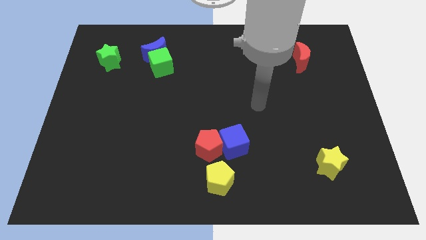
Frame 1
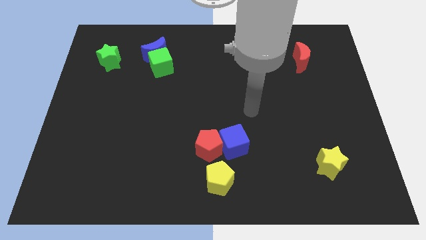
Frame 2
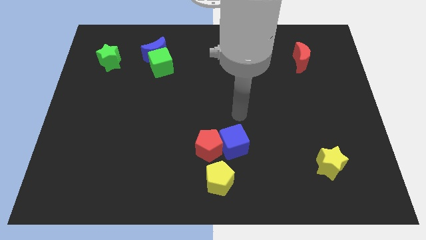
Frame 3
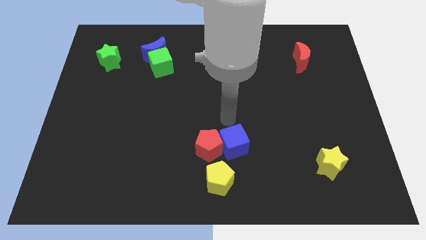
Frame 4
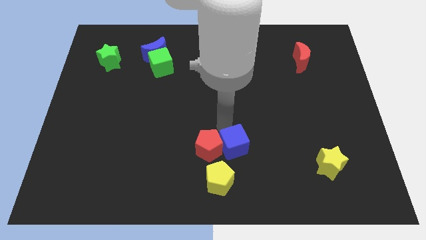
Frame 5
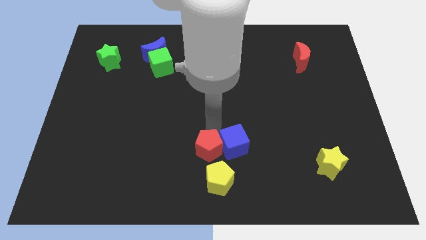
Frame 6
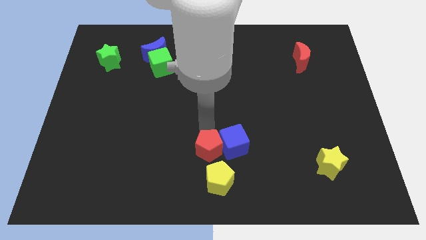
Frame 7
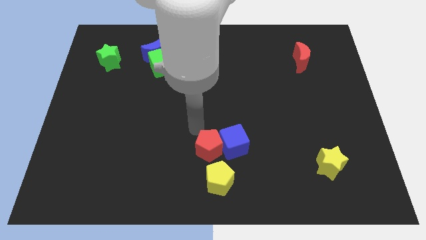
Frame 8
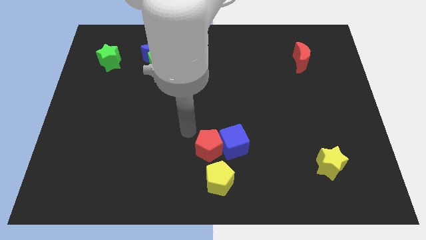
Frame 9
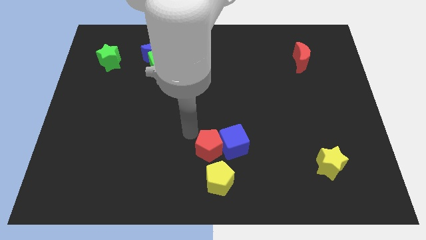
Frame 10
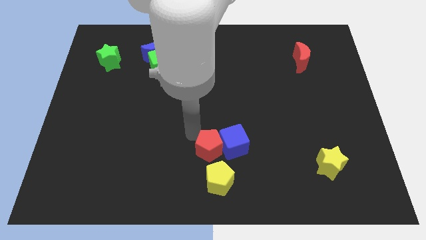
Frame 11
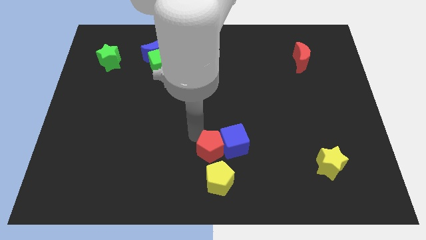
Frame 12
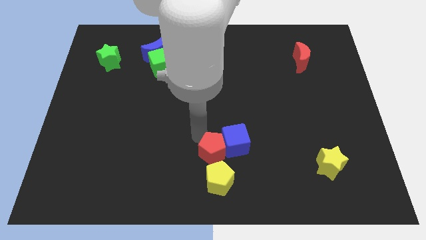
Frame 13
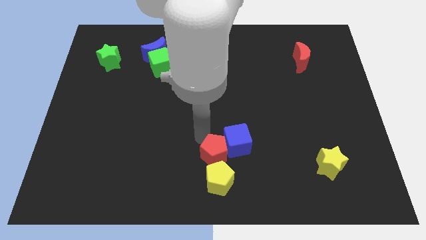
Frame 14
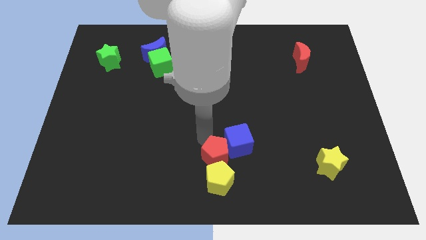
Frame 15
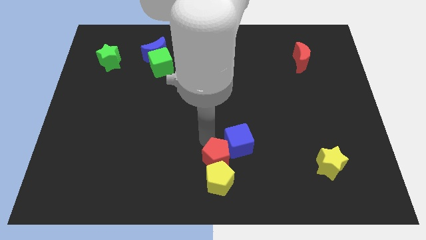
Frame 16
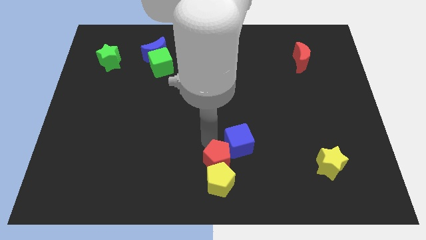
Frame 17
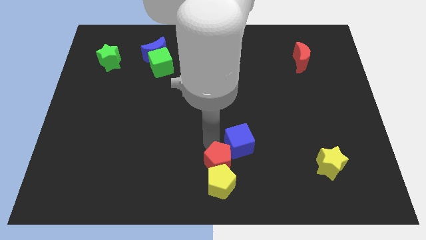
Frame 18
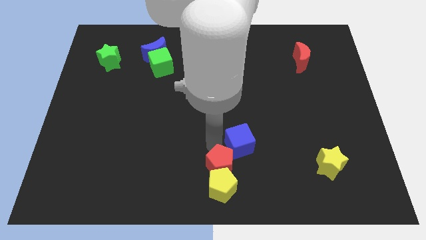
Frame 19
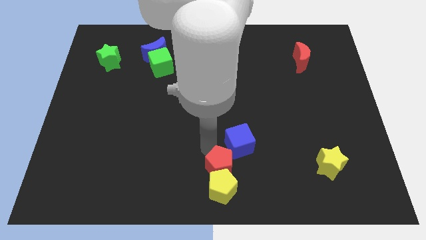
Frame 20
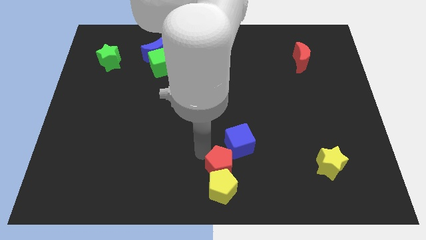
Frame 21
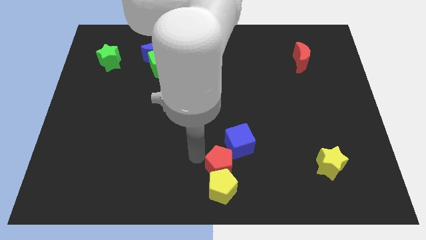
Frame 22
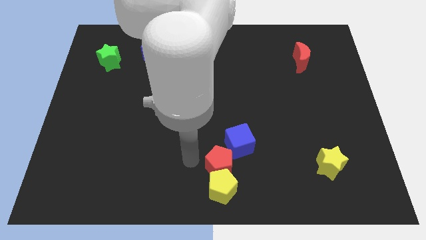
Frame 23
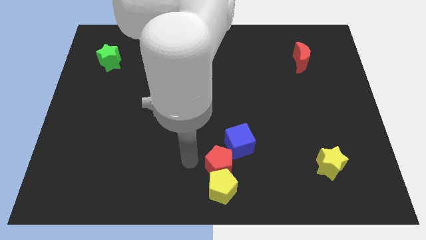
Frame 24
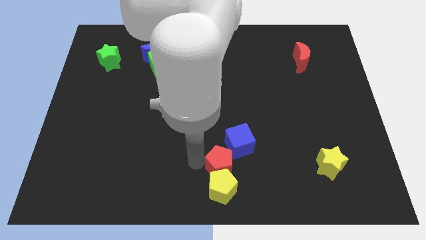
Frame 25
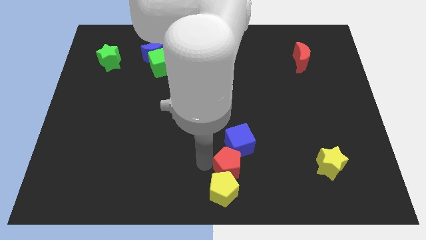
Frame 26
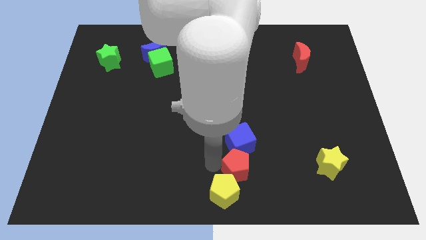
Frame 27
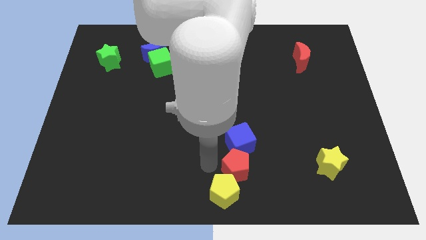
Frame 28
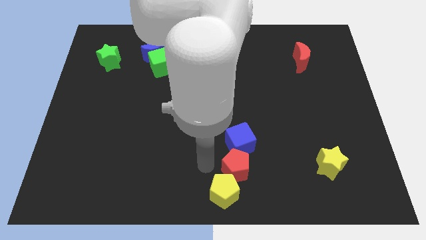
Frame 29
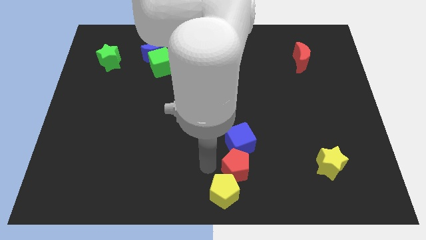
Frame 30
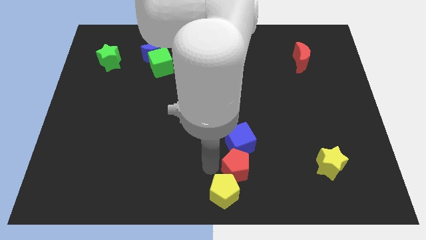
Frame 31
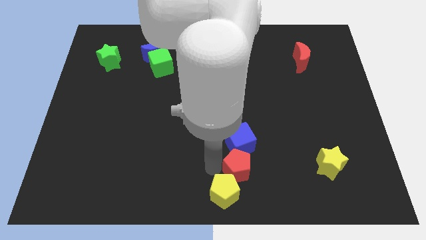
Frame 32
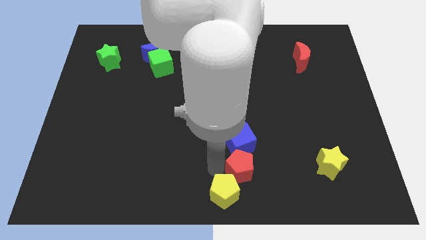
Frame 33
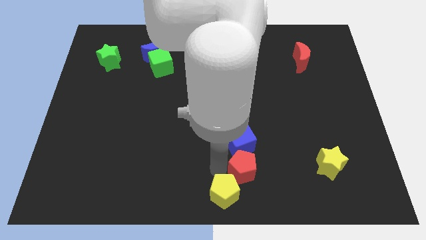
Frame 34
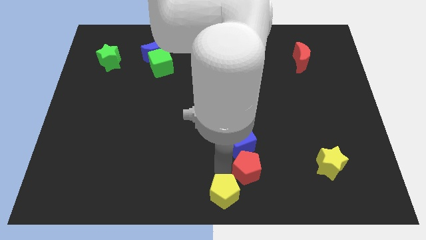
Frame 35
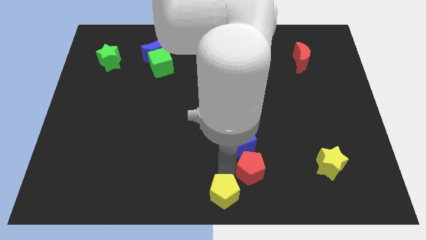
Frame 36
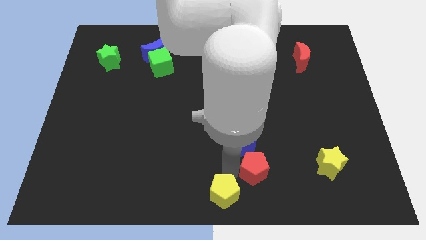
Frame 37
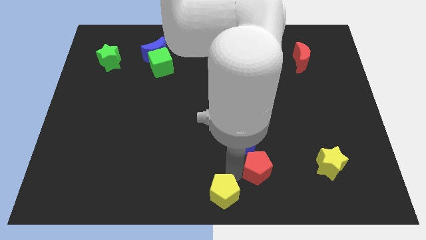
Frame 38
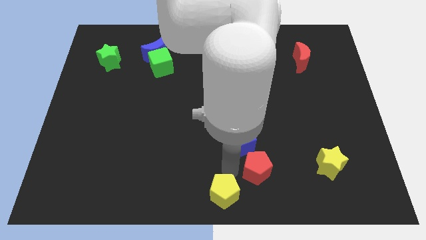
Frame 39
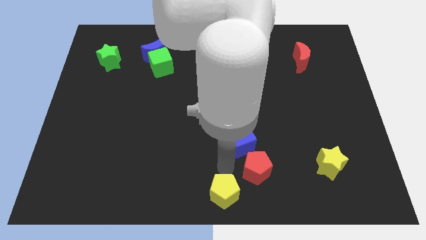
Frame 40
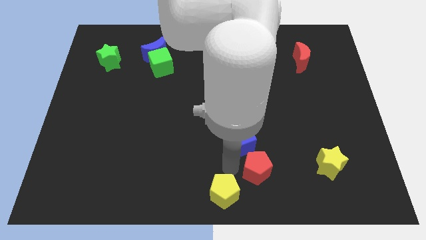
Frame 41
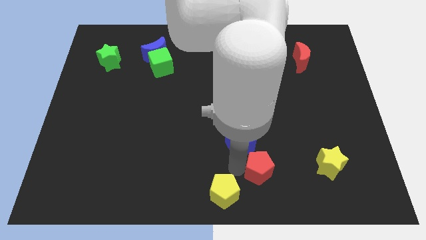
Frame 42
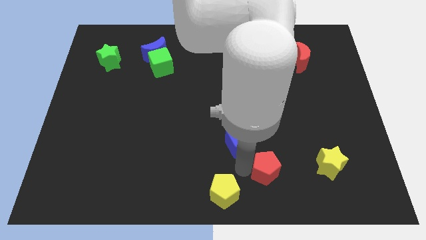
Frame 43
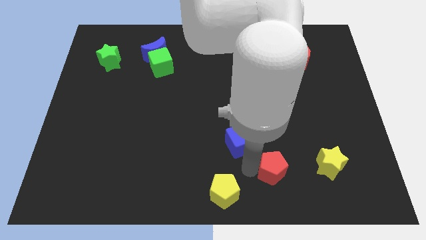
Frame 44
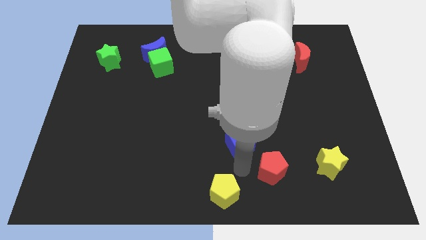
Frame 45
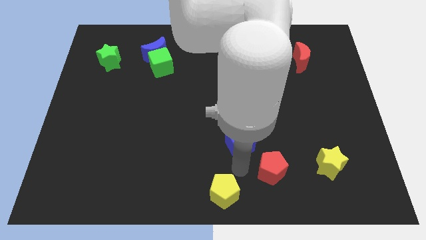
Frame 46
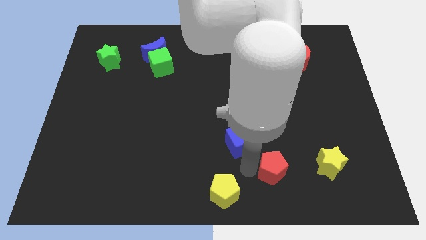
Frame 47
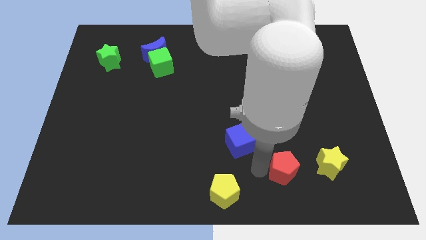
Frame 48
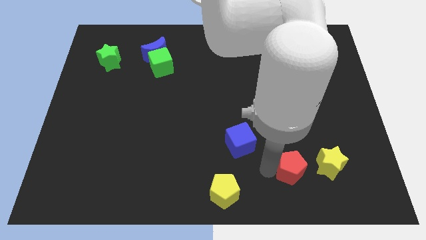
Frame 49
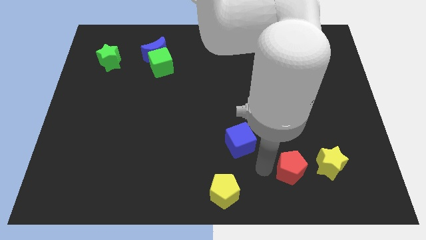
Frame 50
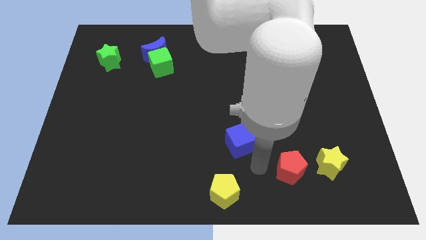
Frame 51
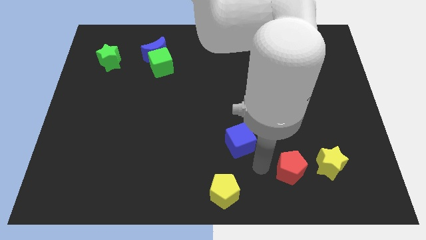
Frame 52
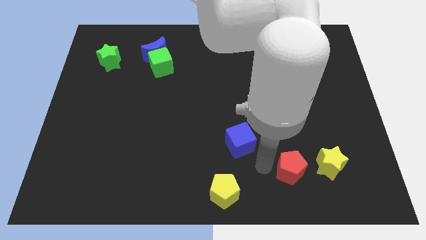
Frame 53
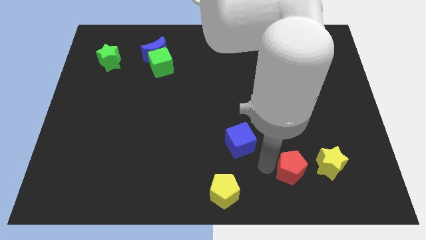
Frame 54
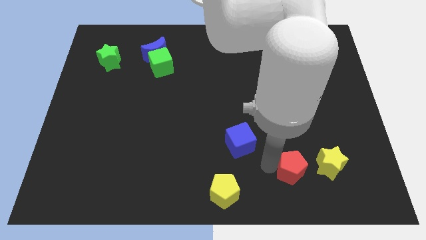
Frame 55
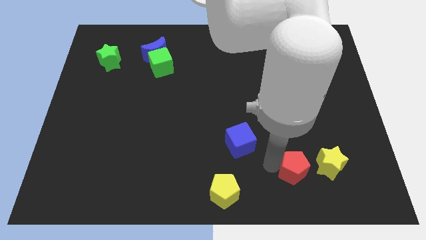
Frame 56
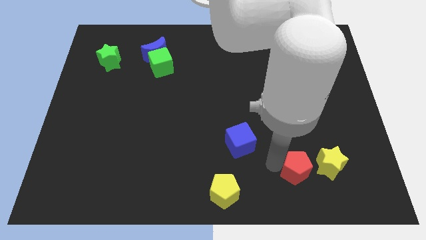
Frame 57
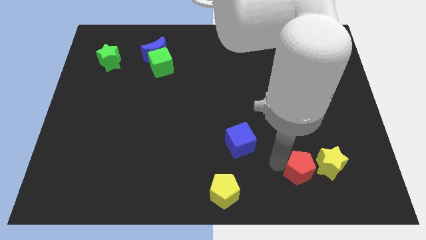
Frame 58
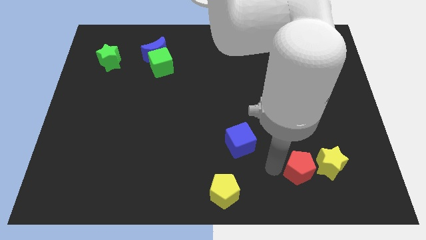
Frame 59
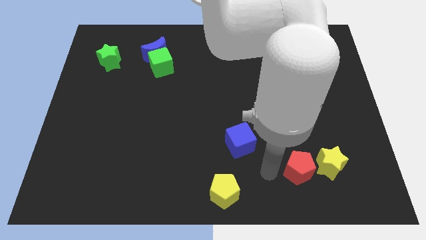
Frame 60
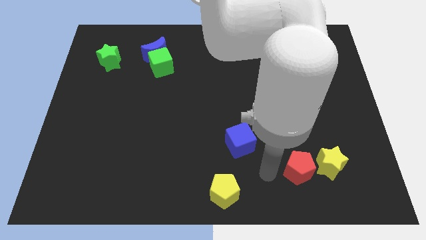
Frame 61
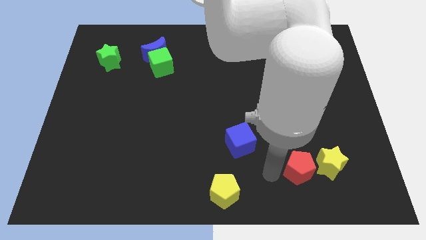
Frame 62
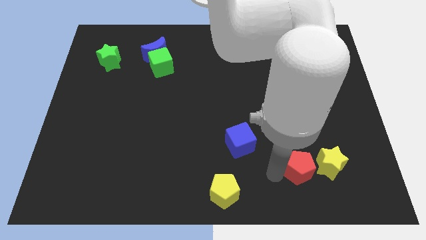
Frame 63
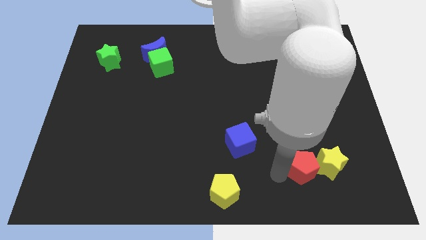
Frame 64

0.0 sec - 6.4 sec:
put the red pentagon close to the yellow star
